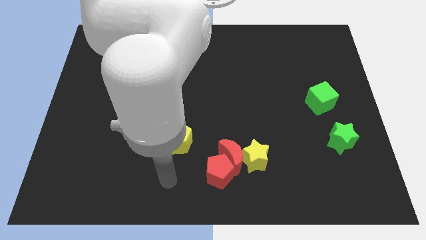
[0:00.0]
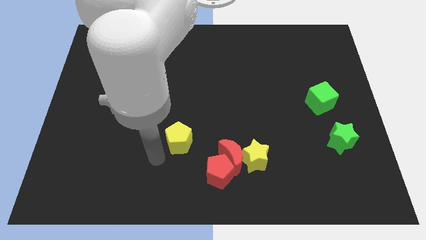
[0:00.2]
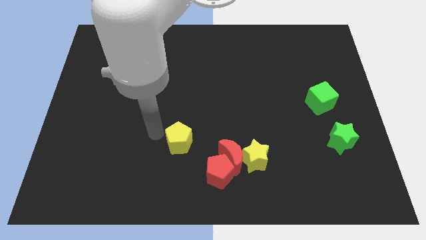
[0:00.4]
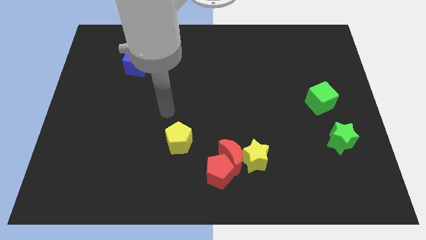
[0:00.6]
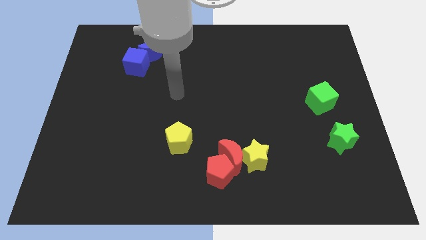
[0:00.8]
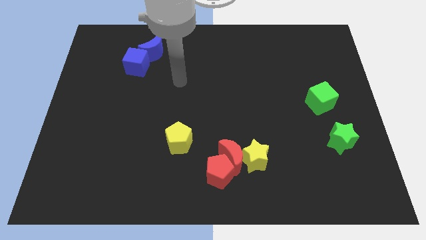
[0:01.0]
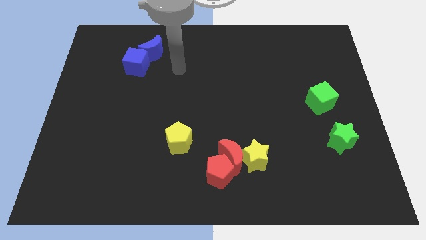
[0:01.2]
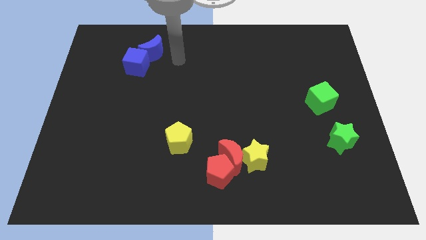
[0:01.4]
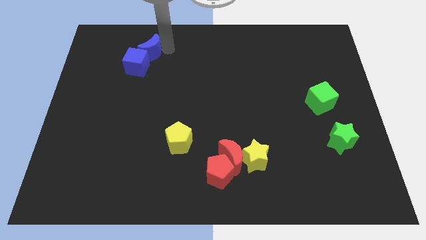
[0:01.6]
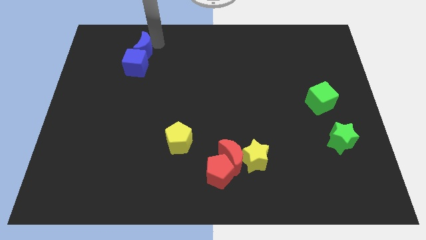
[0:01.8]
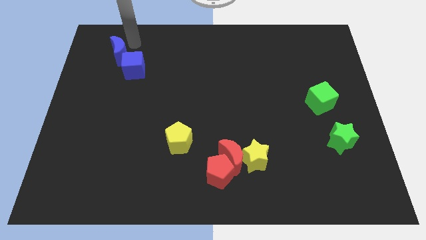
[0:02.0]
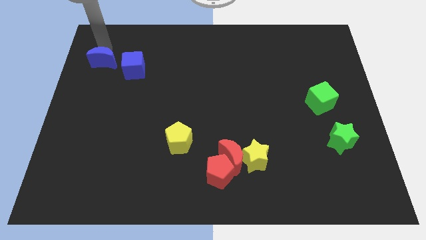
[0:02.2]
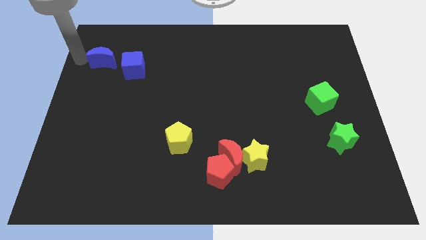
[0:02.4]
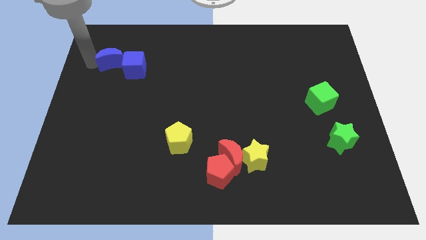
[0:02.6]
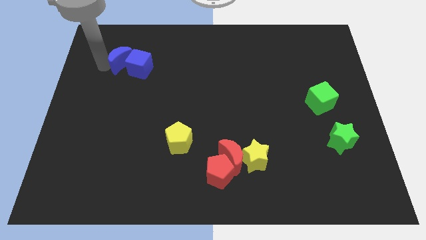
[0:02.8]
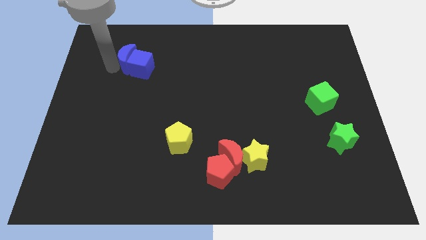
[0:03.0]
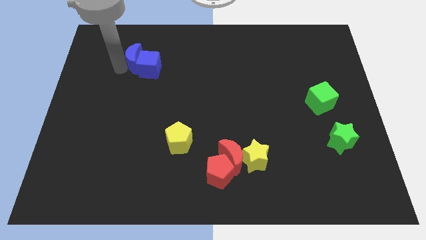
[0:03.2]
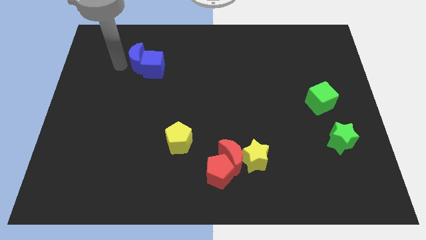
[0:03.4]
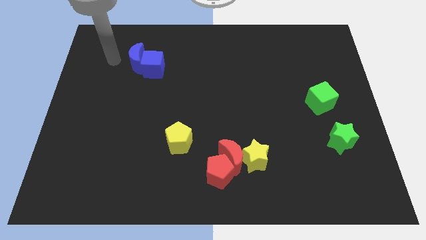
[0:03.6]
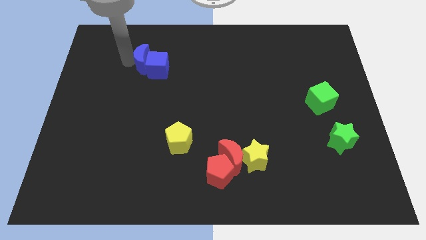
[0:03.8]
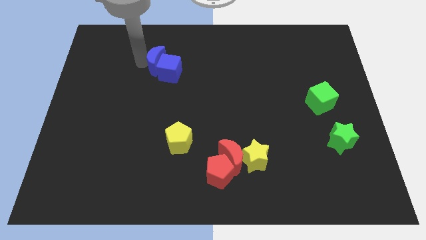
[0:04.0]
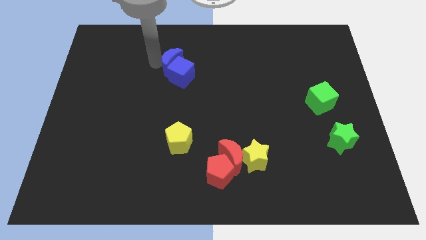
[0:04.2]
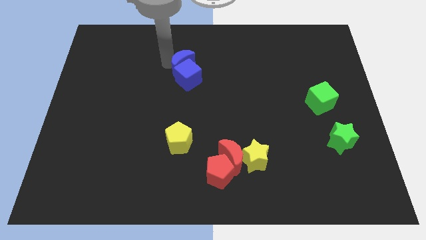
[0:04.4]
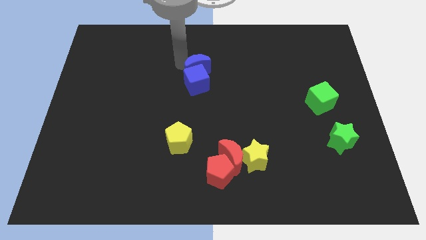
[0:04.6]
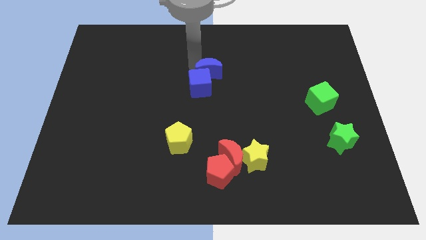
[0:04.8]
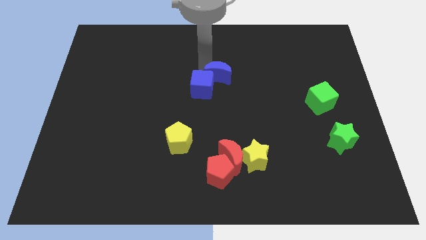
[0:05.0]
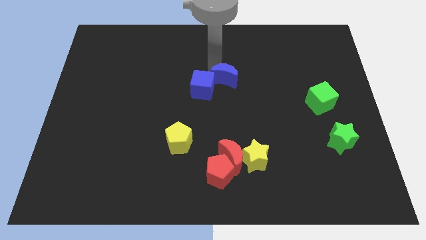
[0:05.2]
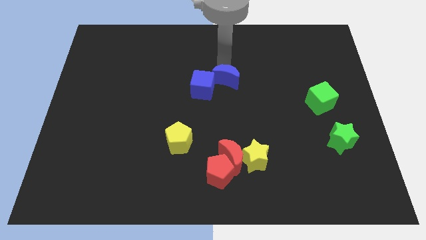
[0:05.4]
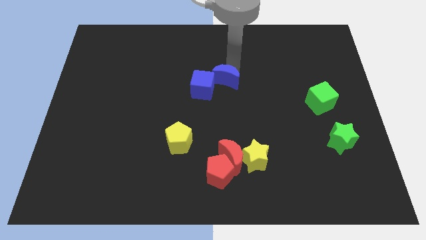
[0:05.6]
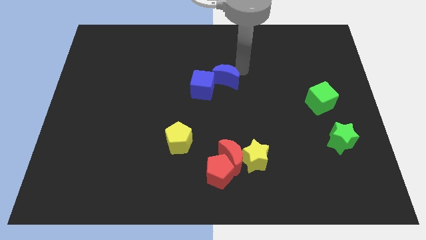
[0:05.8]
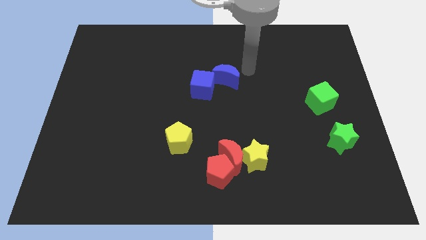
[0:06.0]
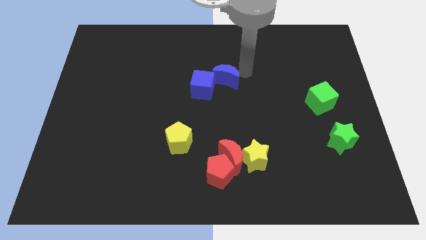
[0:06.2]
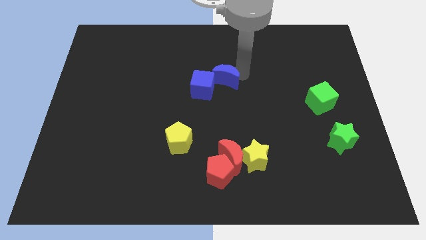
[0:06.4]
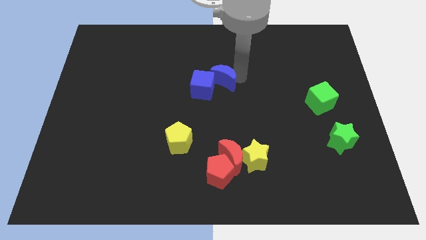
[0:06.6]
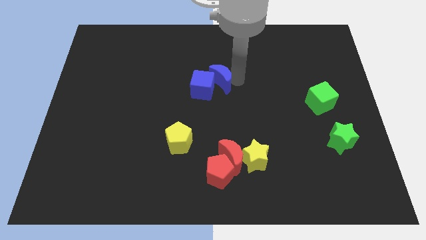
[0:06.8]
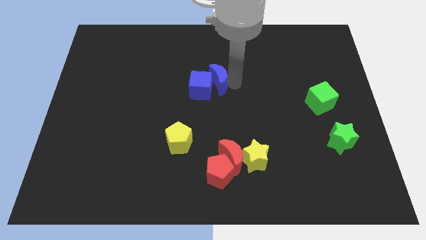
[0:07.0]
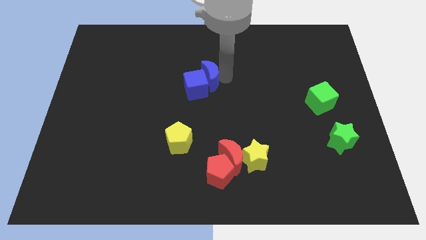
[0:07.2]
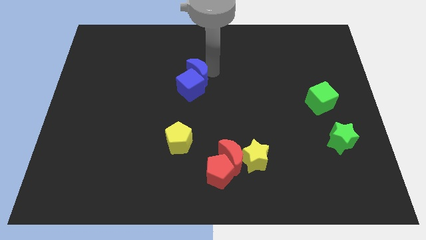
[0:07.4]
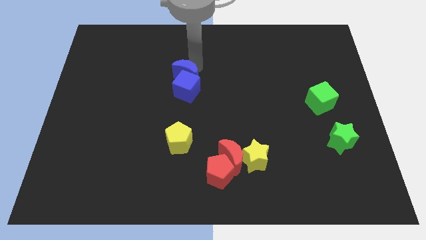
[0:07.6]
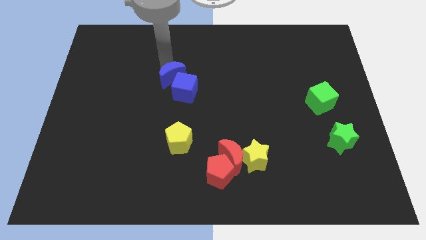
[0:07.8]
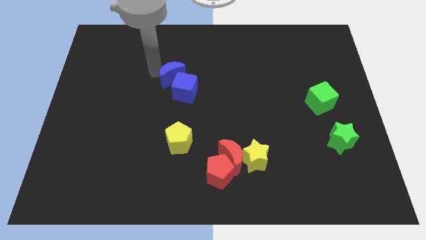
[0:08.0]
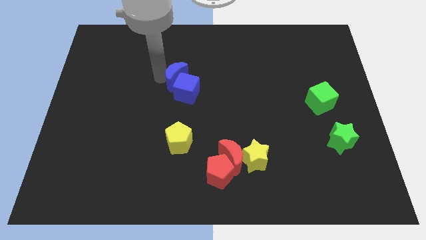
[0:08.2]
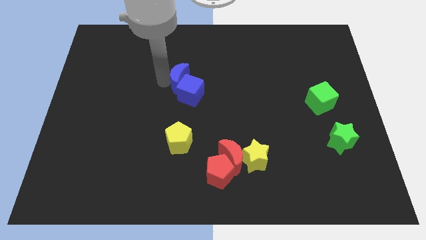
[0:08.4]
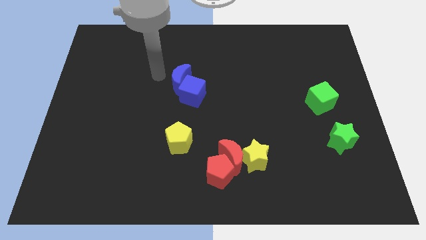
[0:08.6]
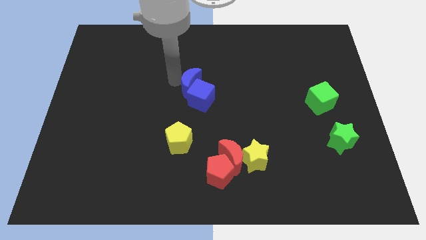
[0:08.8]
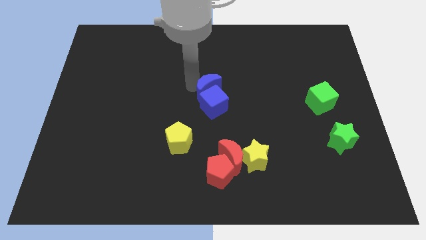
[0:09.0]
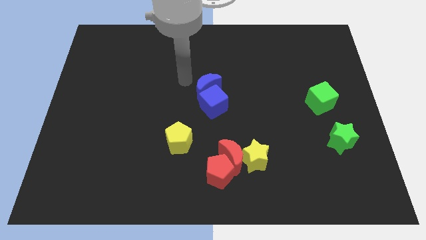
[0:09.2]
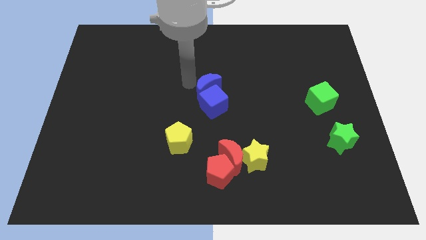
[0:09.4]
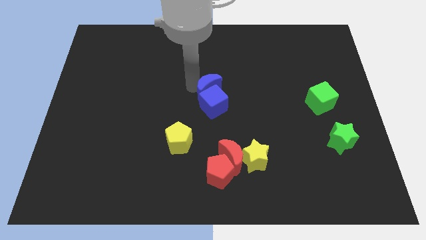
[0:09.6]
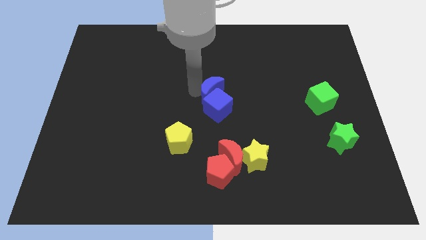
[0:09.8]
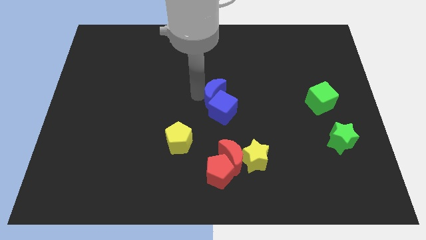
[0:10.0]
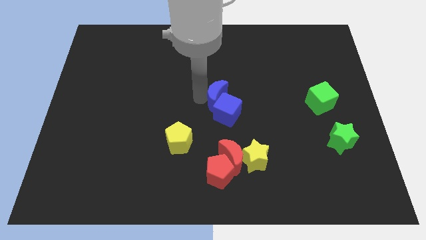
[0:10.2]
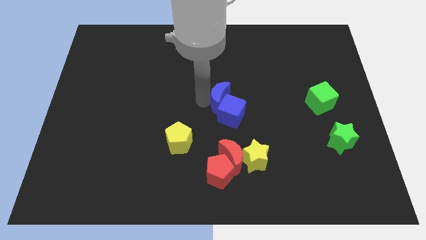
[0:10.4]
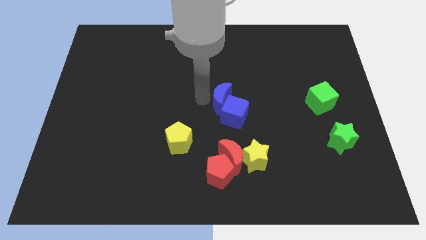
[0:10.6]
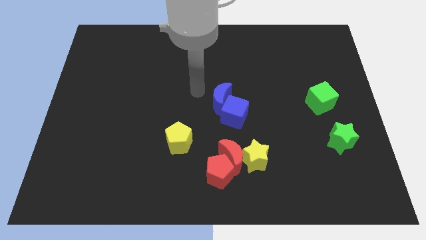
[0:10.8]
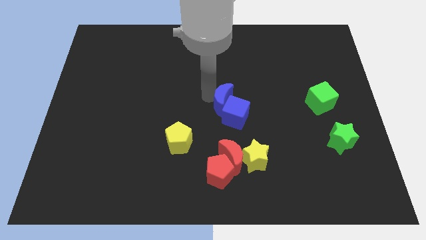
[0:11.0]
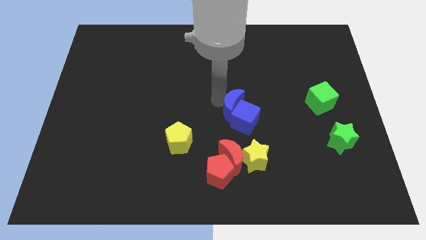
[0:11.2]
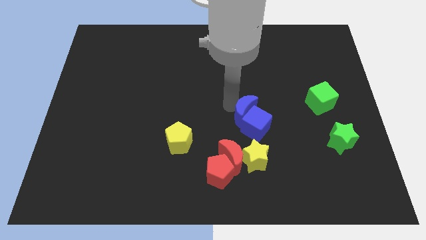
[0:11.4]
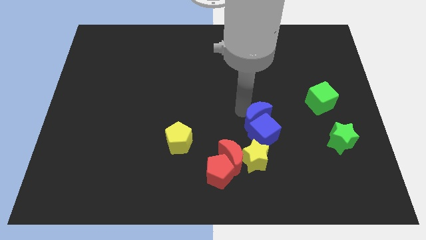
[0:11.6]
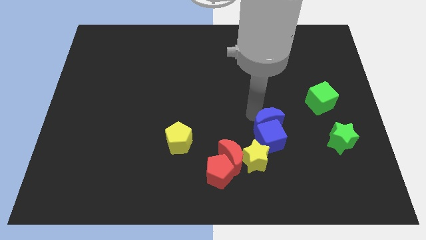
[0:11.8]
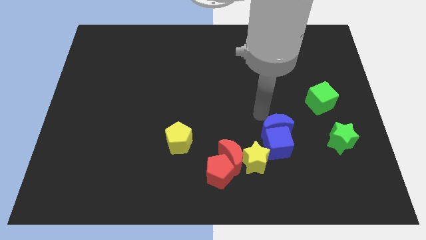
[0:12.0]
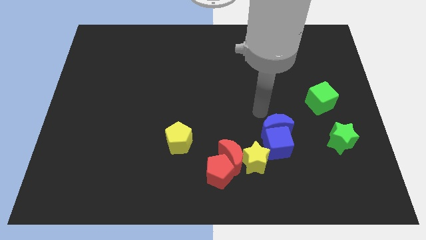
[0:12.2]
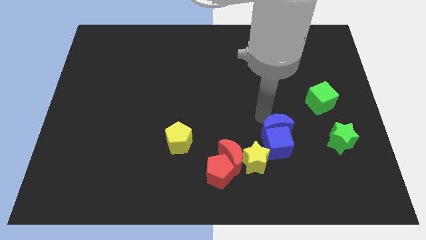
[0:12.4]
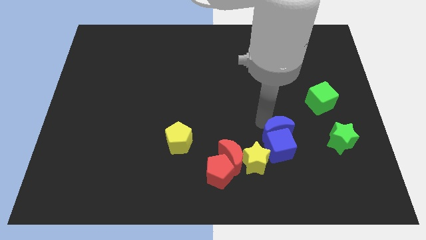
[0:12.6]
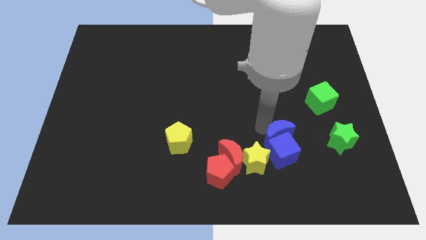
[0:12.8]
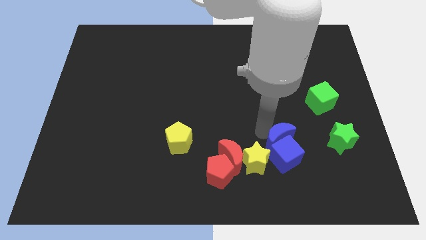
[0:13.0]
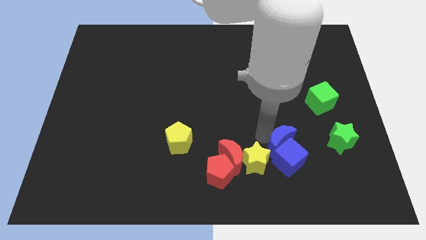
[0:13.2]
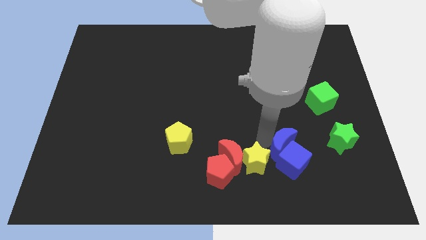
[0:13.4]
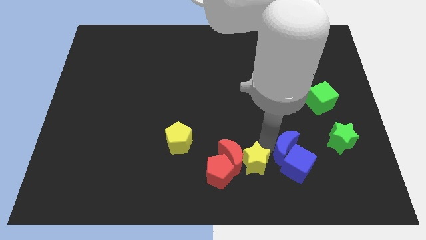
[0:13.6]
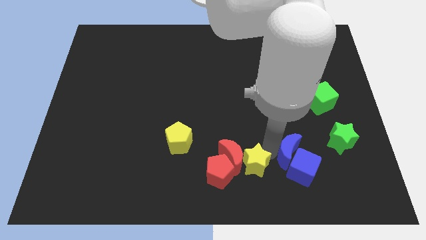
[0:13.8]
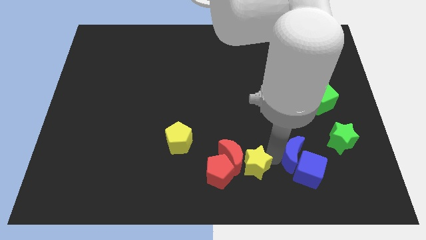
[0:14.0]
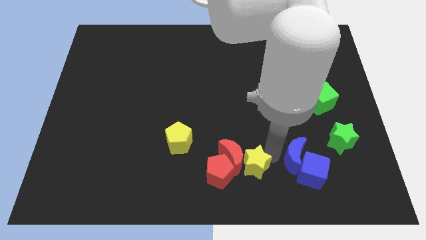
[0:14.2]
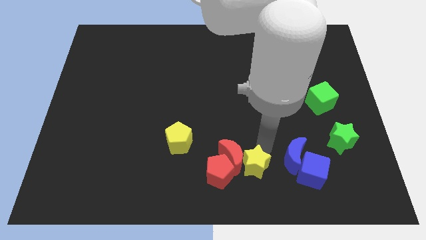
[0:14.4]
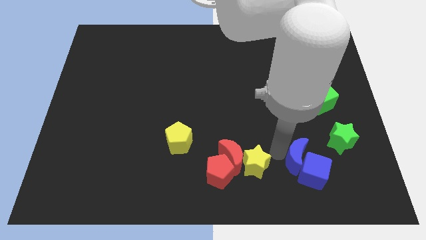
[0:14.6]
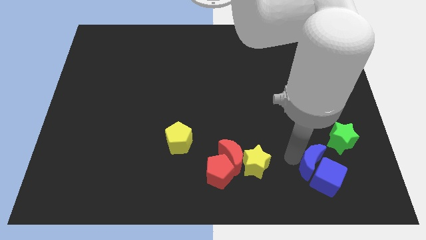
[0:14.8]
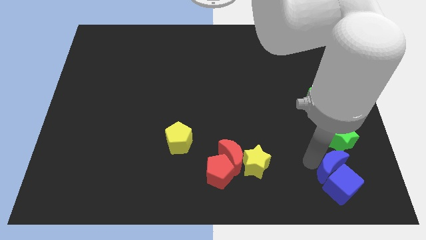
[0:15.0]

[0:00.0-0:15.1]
move the blue moon to the bottom side of the green star
